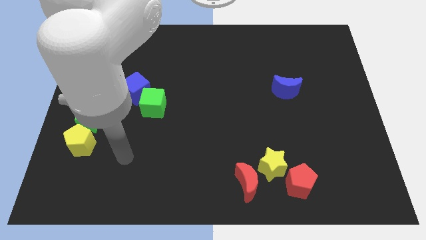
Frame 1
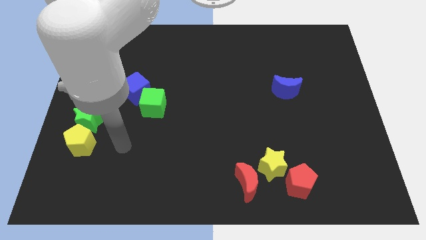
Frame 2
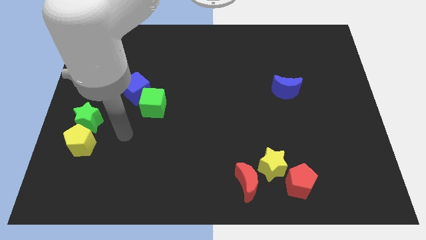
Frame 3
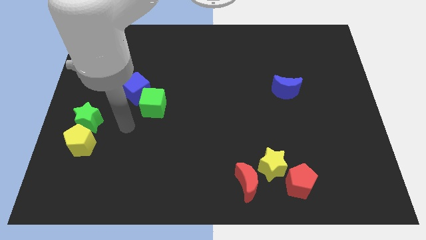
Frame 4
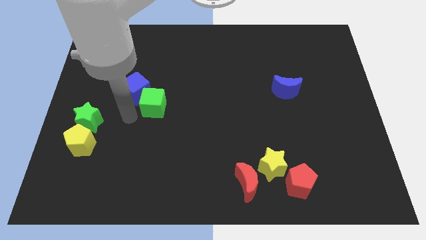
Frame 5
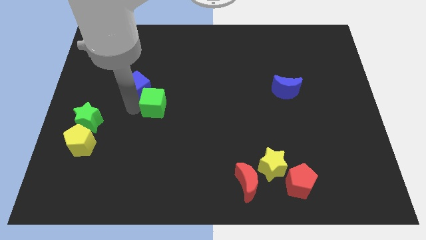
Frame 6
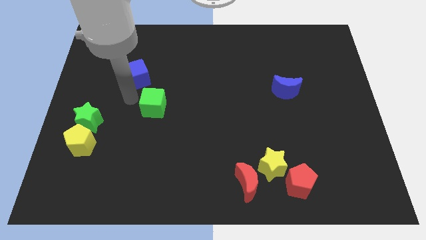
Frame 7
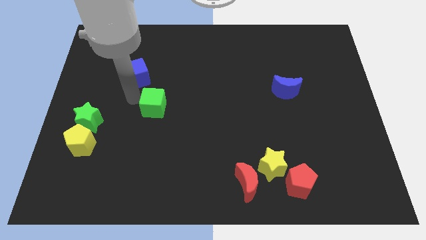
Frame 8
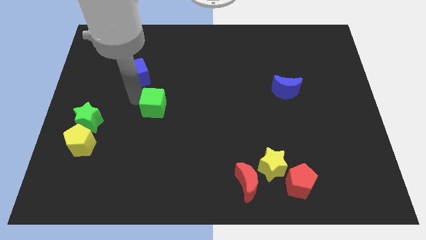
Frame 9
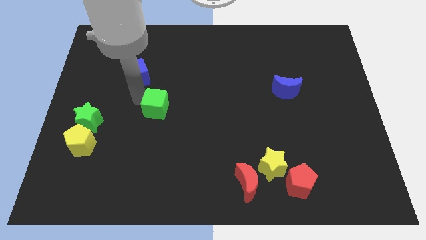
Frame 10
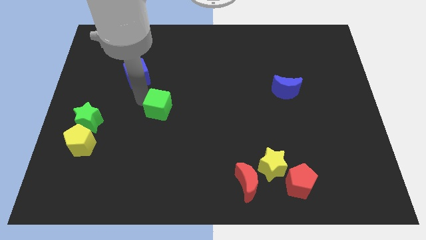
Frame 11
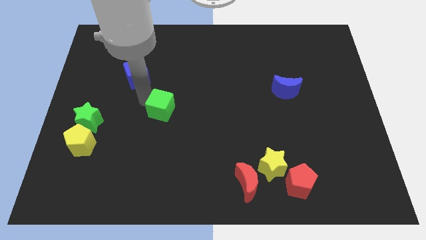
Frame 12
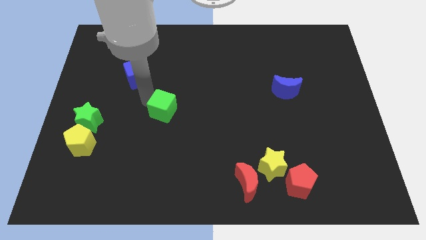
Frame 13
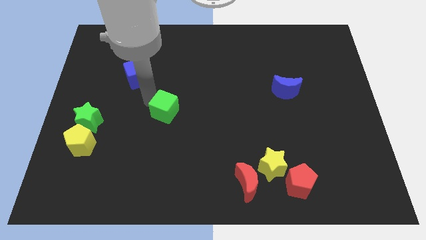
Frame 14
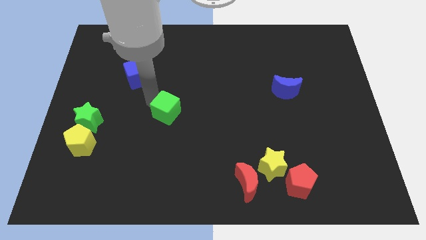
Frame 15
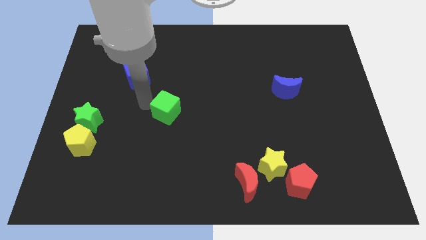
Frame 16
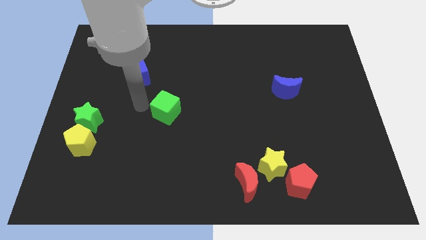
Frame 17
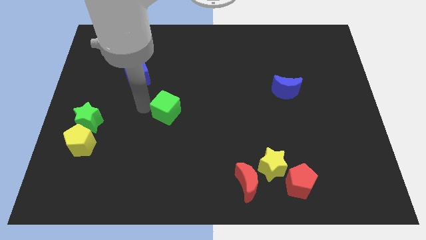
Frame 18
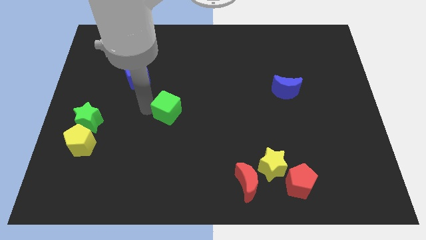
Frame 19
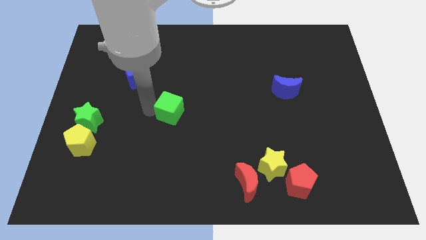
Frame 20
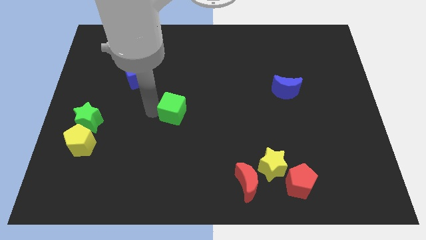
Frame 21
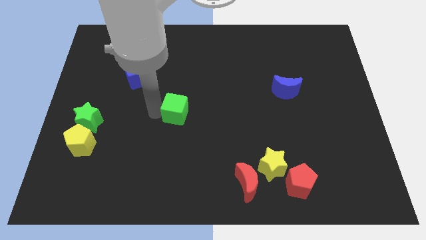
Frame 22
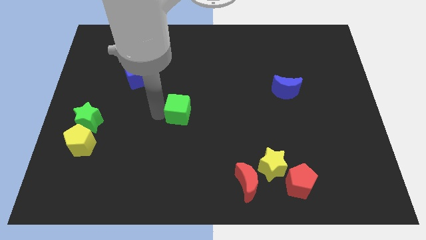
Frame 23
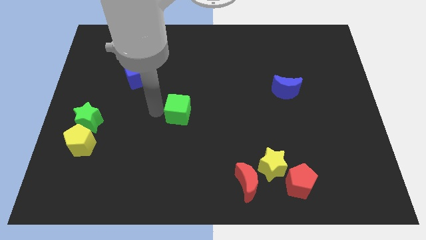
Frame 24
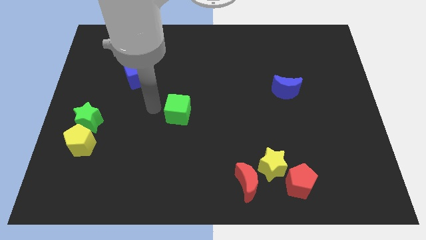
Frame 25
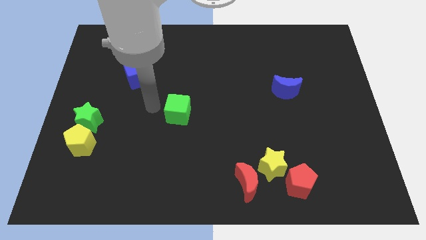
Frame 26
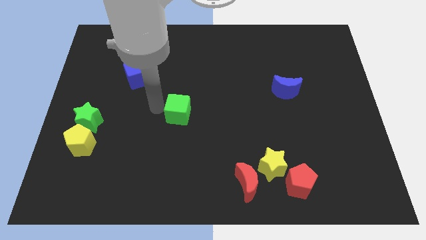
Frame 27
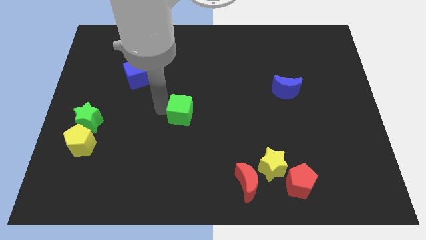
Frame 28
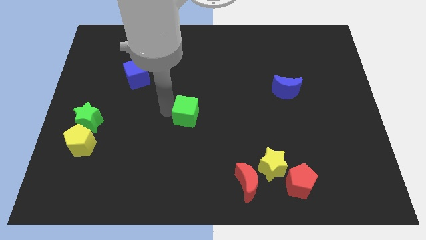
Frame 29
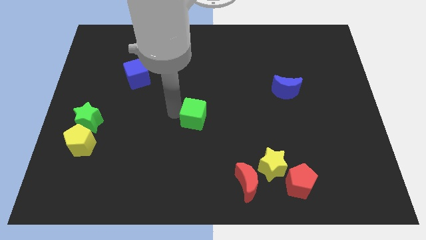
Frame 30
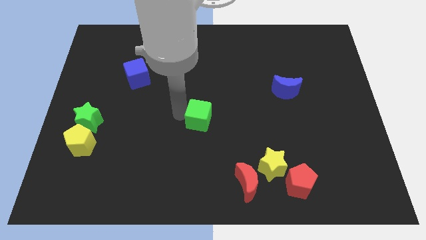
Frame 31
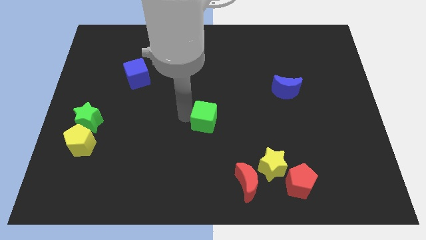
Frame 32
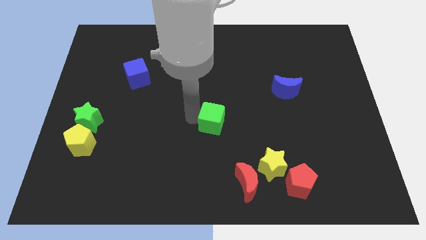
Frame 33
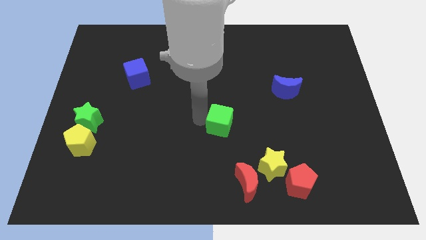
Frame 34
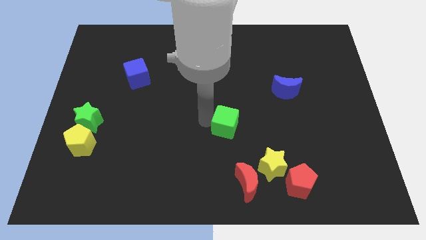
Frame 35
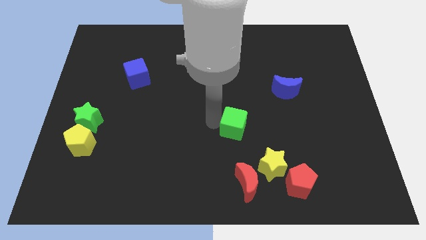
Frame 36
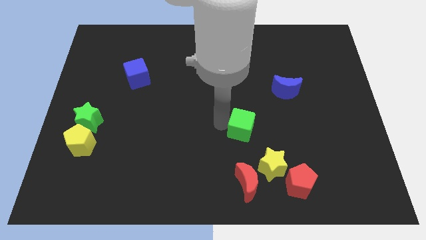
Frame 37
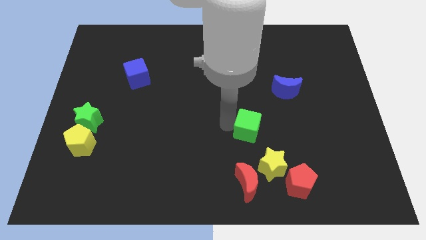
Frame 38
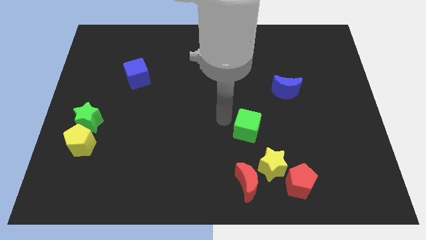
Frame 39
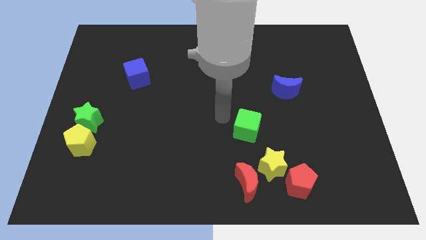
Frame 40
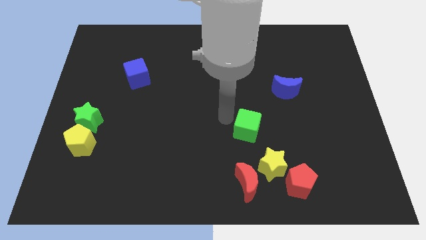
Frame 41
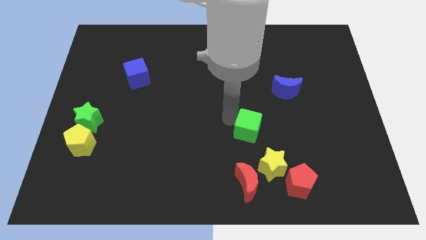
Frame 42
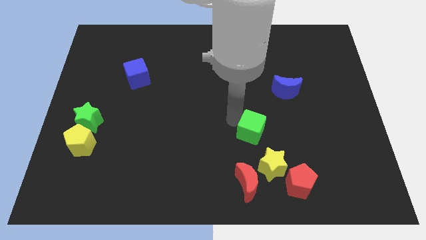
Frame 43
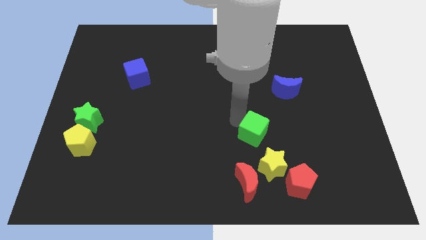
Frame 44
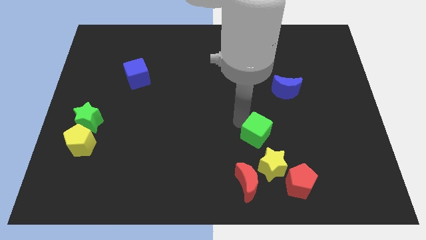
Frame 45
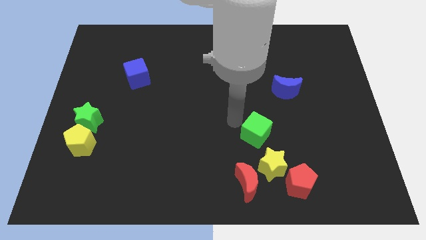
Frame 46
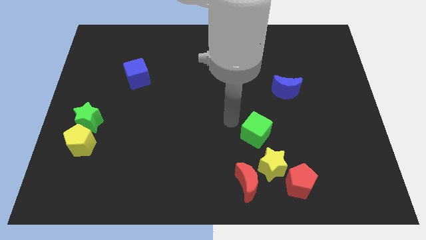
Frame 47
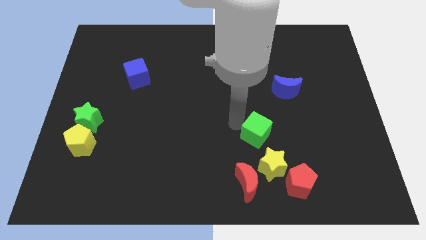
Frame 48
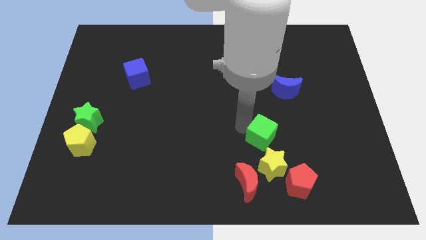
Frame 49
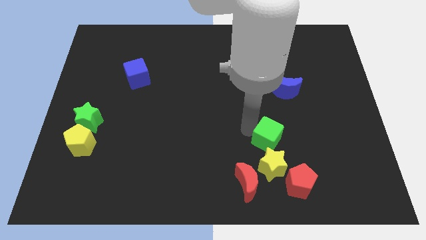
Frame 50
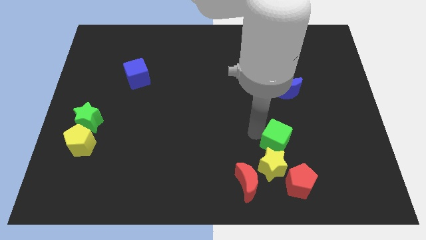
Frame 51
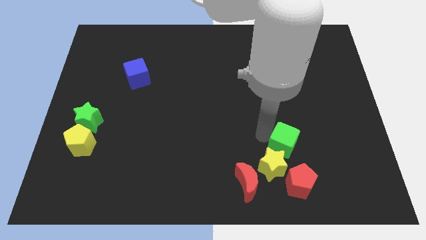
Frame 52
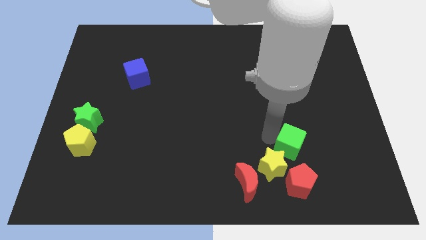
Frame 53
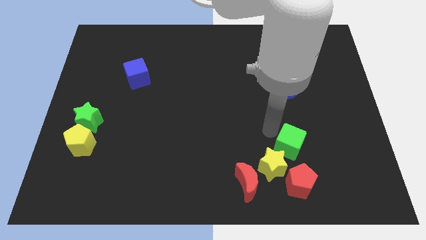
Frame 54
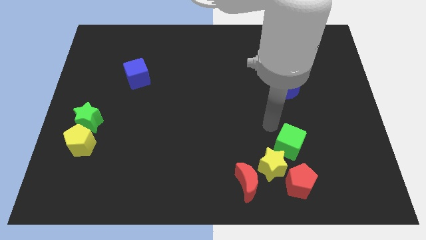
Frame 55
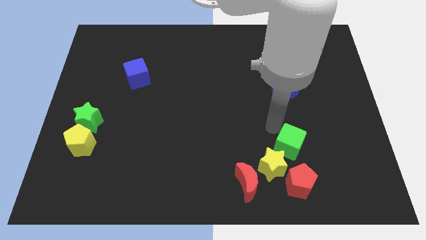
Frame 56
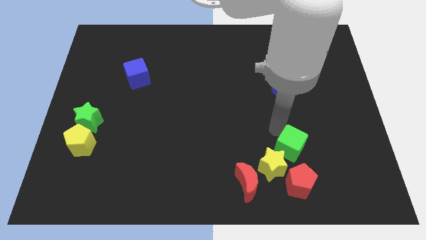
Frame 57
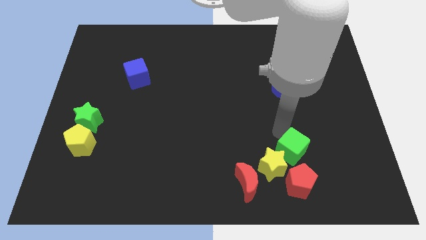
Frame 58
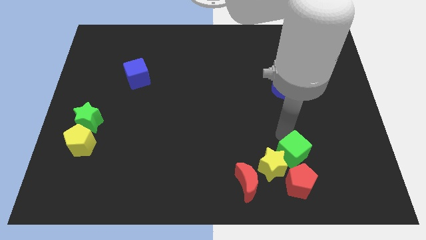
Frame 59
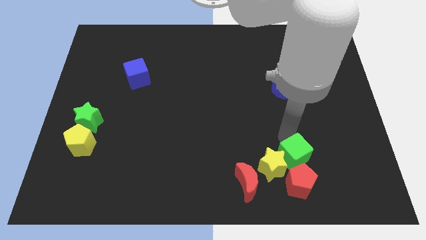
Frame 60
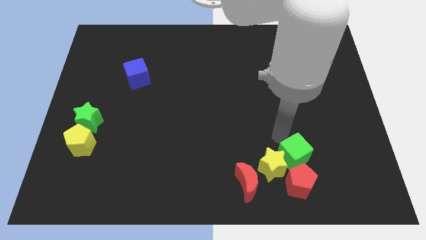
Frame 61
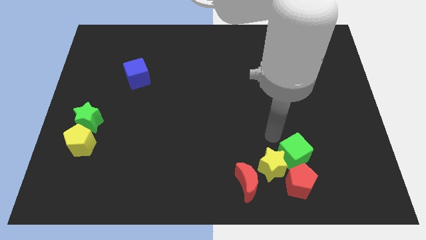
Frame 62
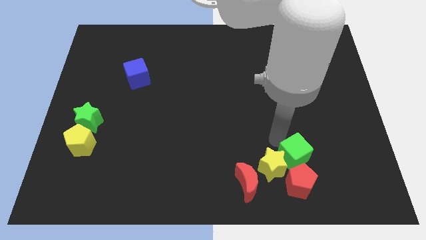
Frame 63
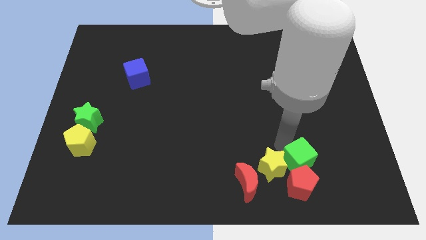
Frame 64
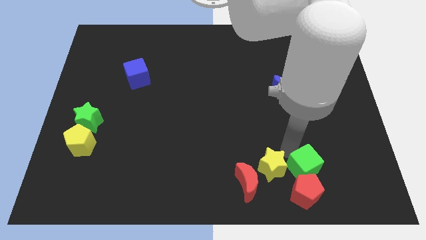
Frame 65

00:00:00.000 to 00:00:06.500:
slide the green cube to the right of the red moon

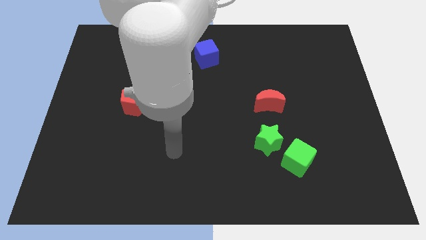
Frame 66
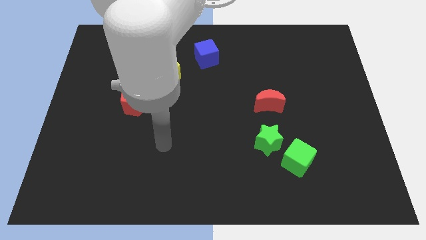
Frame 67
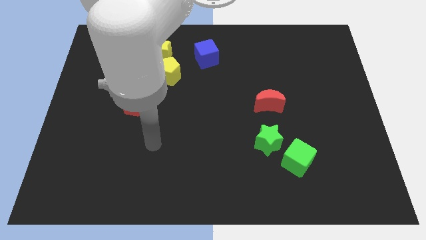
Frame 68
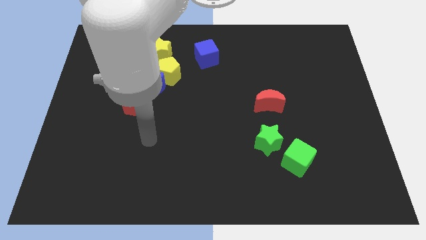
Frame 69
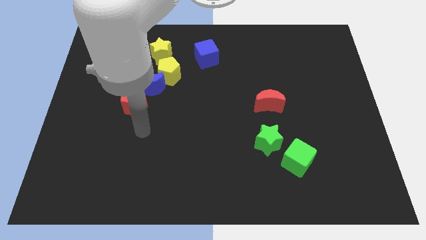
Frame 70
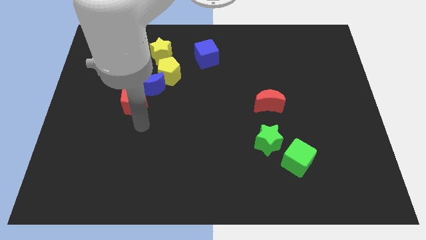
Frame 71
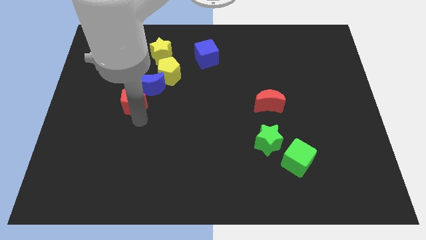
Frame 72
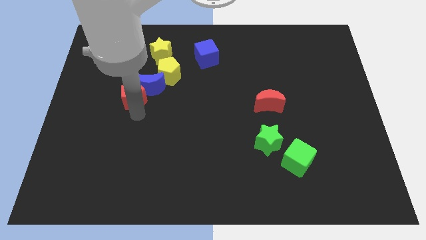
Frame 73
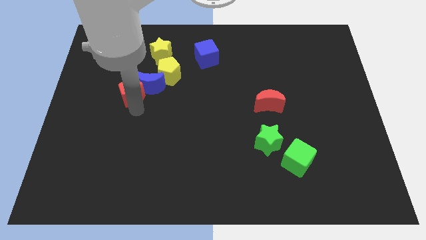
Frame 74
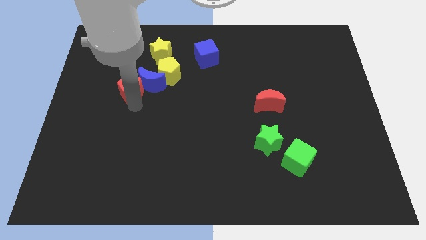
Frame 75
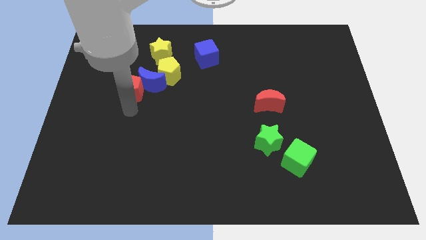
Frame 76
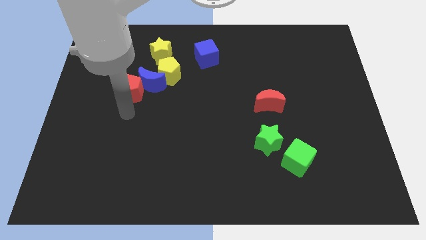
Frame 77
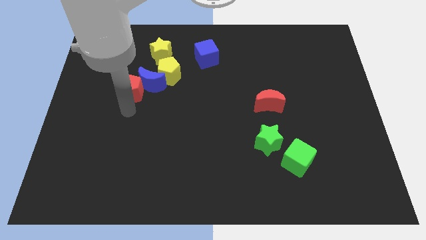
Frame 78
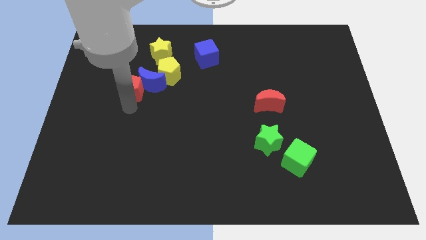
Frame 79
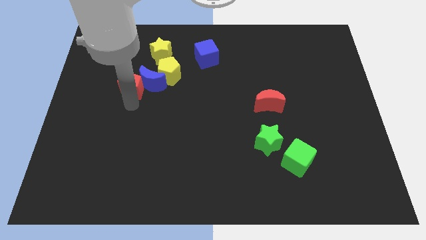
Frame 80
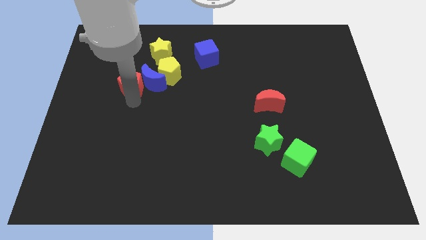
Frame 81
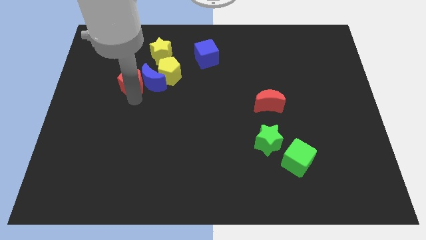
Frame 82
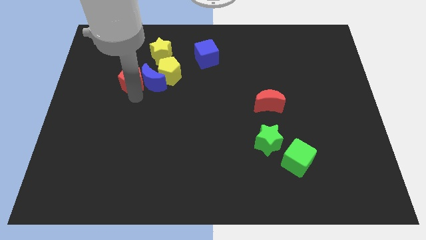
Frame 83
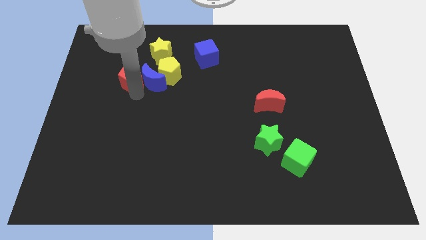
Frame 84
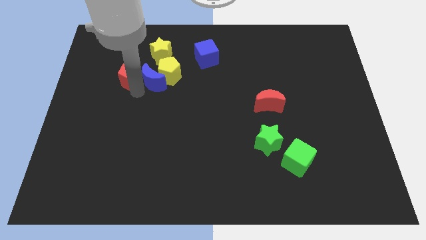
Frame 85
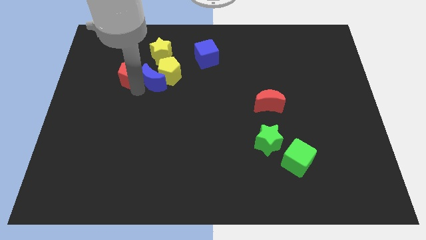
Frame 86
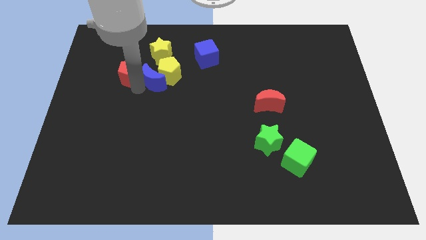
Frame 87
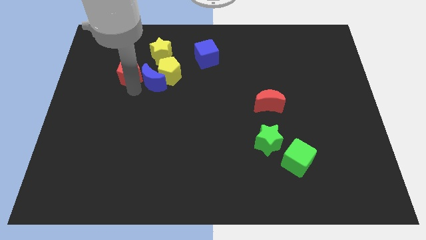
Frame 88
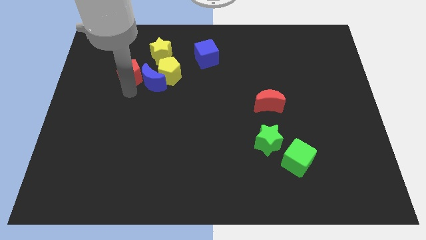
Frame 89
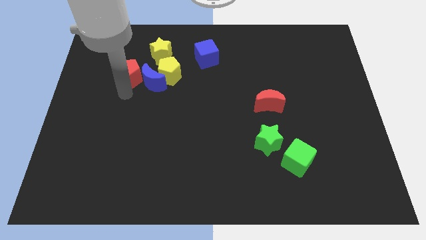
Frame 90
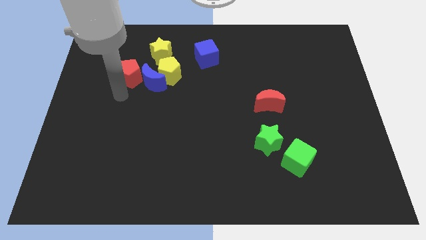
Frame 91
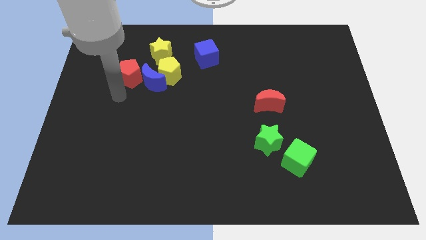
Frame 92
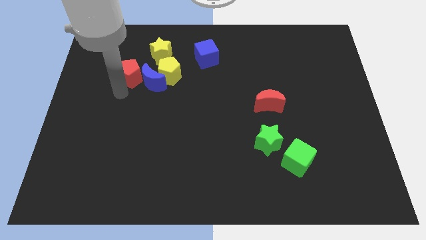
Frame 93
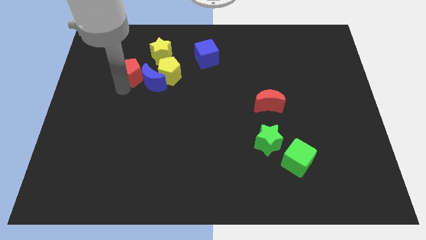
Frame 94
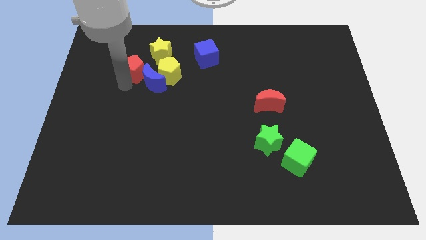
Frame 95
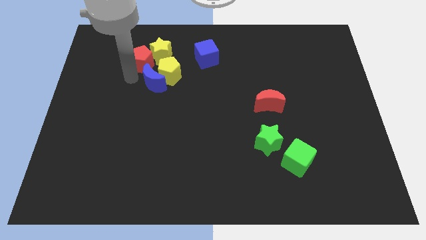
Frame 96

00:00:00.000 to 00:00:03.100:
put the red pentagon to the top side of the blue moon
